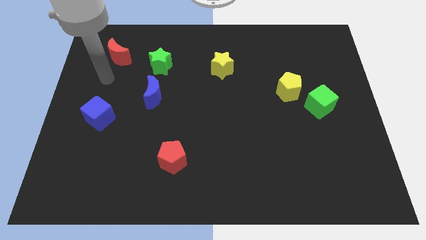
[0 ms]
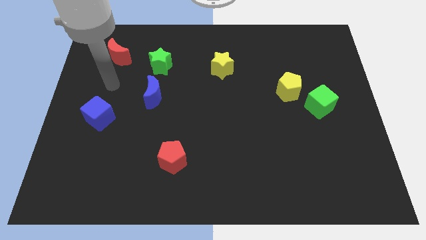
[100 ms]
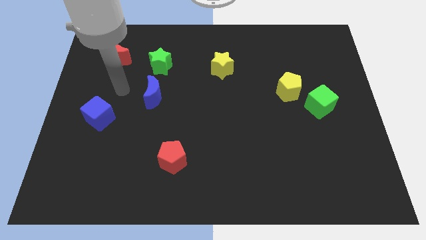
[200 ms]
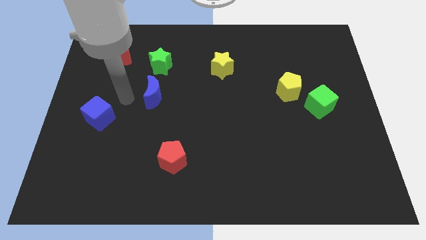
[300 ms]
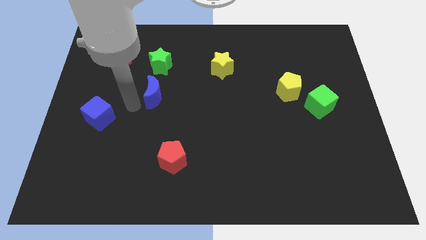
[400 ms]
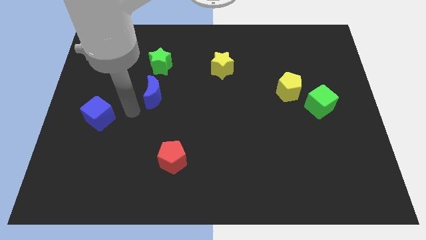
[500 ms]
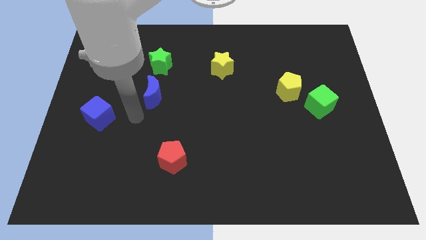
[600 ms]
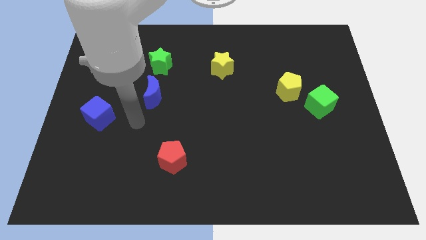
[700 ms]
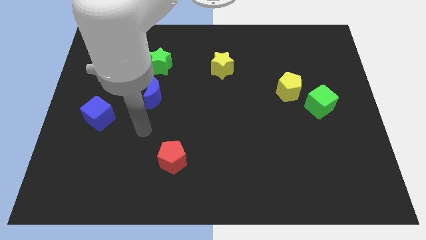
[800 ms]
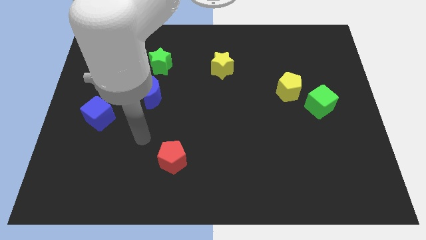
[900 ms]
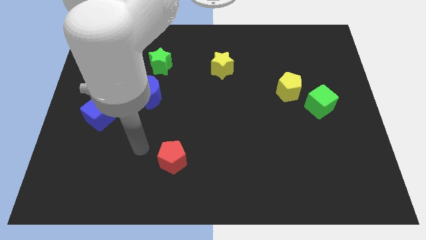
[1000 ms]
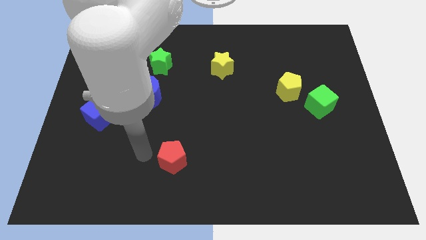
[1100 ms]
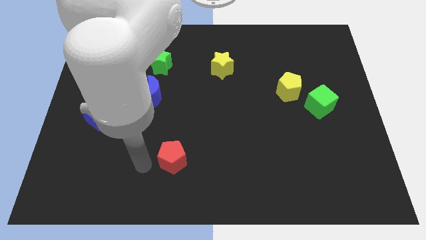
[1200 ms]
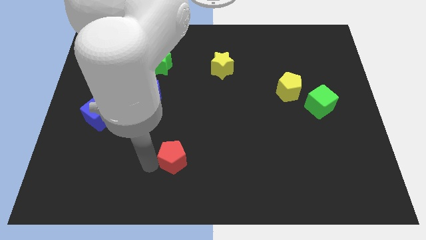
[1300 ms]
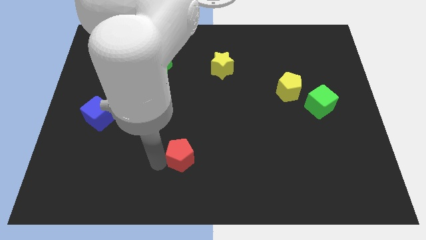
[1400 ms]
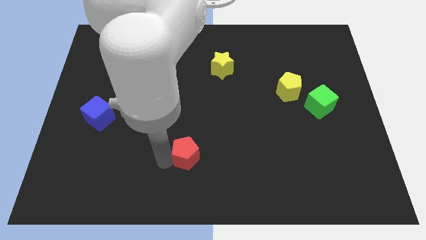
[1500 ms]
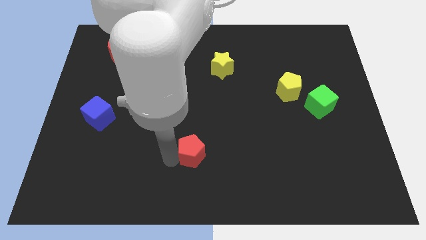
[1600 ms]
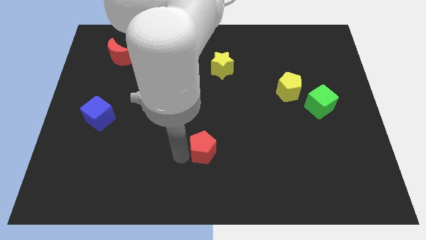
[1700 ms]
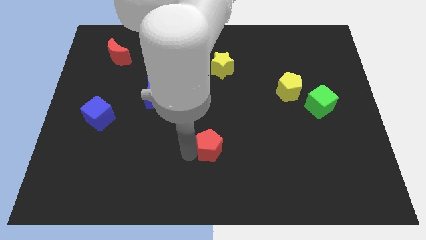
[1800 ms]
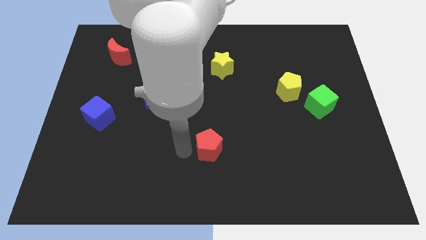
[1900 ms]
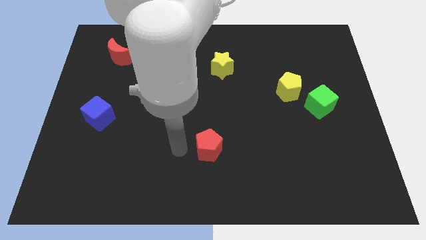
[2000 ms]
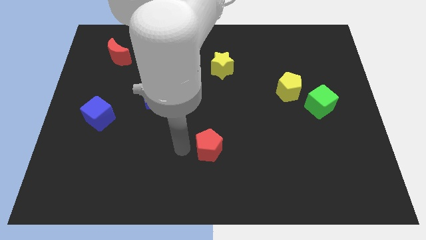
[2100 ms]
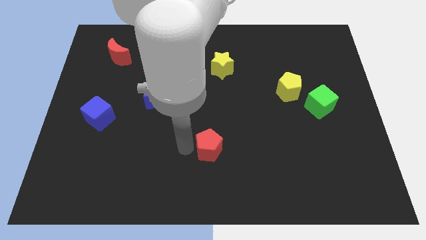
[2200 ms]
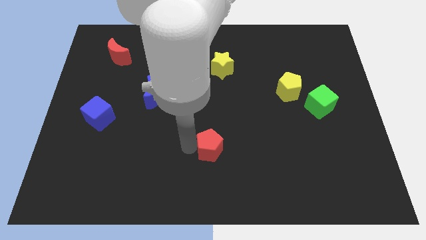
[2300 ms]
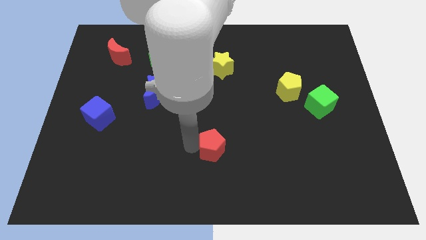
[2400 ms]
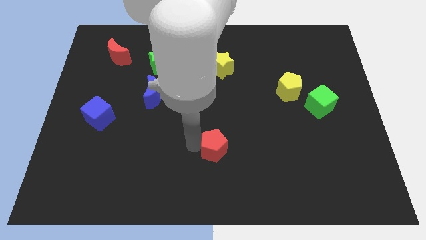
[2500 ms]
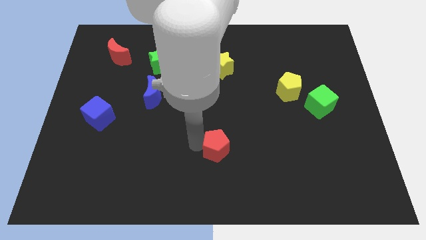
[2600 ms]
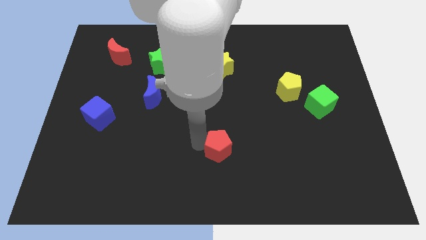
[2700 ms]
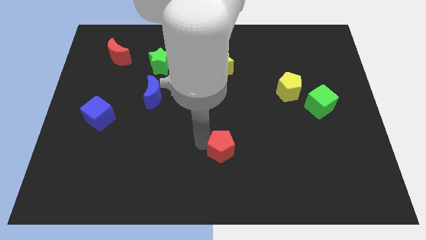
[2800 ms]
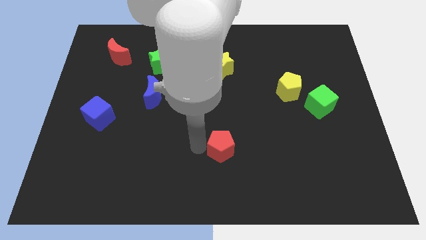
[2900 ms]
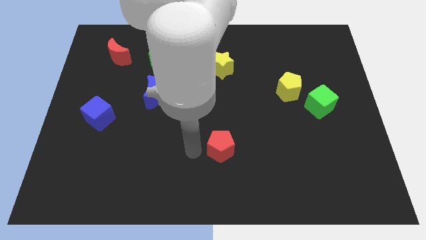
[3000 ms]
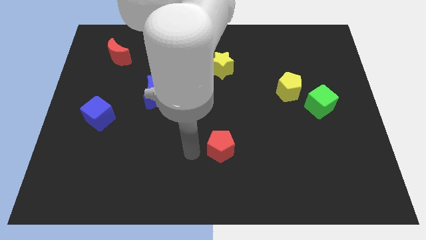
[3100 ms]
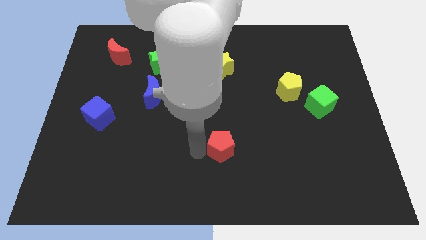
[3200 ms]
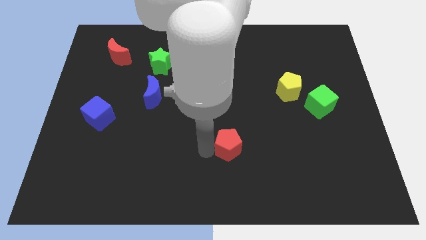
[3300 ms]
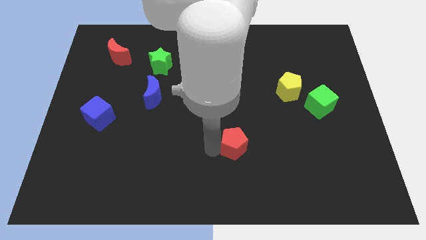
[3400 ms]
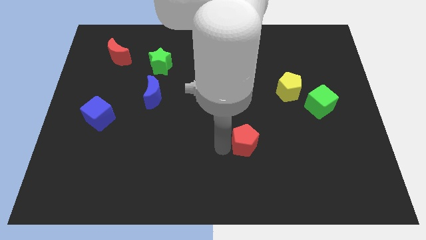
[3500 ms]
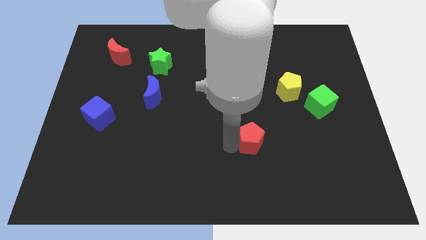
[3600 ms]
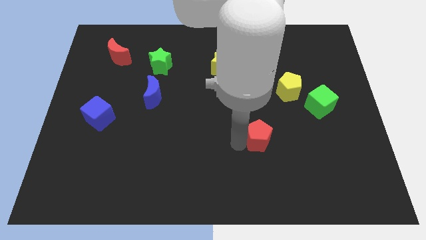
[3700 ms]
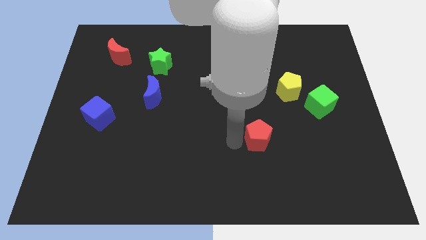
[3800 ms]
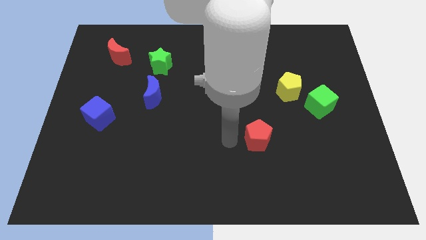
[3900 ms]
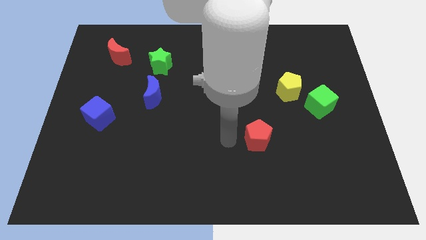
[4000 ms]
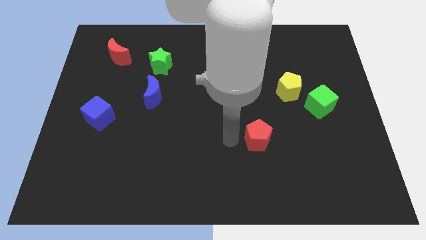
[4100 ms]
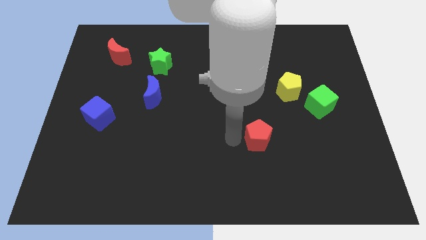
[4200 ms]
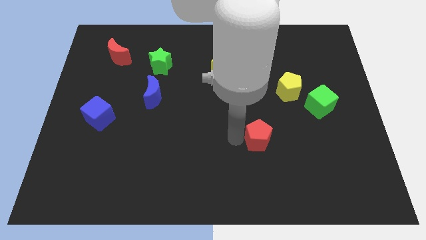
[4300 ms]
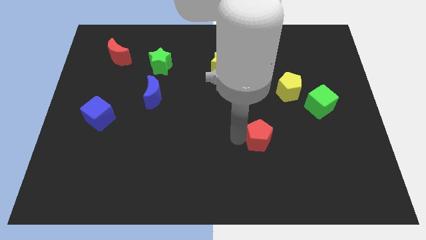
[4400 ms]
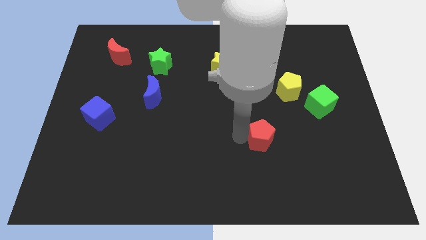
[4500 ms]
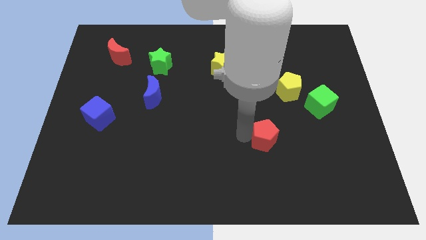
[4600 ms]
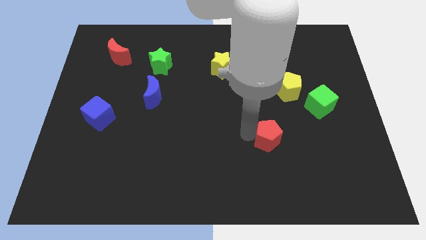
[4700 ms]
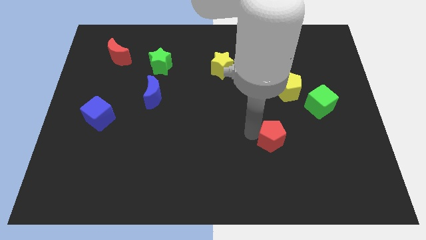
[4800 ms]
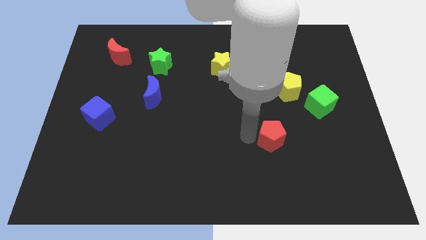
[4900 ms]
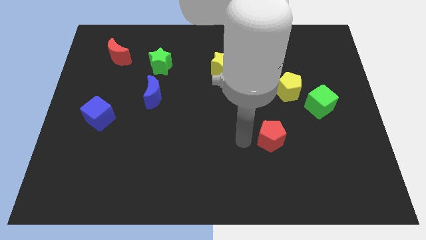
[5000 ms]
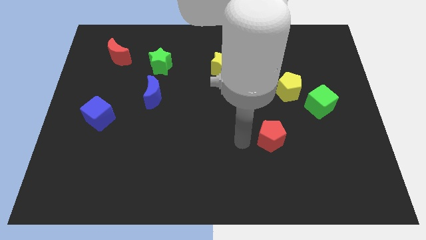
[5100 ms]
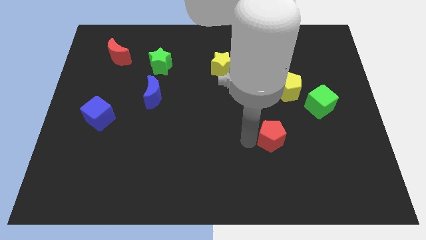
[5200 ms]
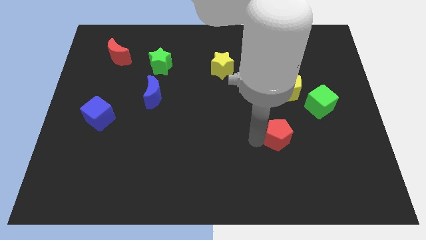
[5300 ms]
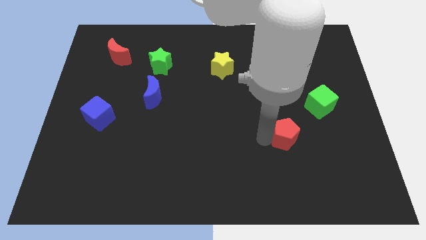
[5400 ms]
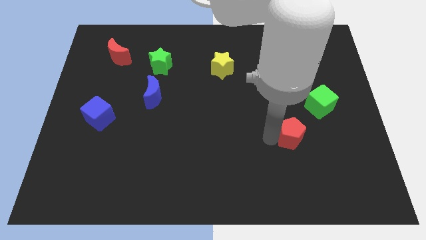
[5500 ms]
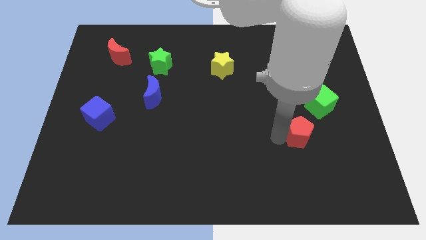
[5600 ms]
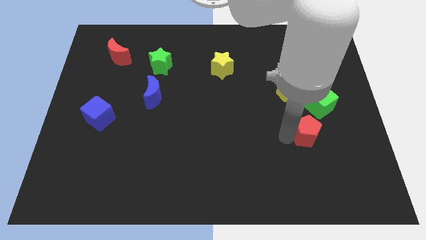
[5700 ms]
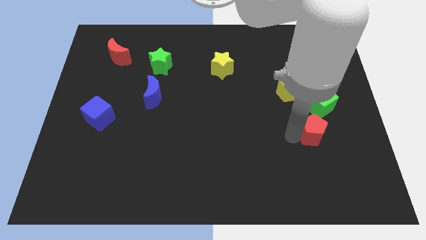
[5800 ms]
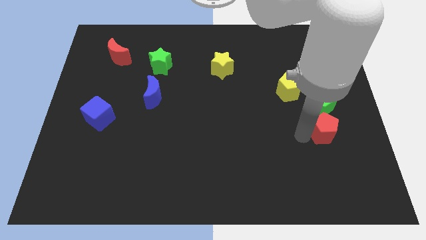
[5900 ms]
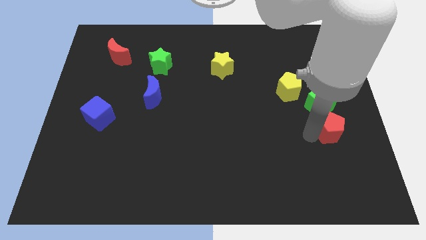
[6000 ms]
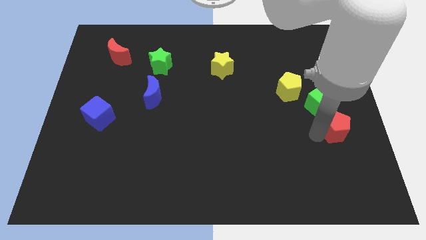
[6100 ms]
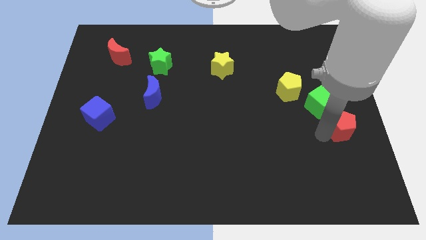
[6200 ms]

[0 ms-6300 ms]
push the red pentagon to the right side

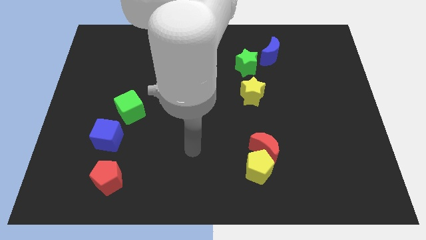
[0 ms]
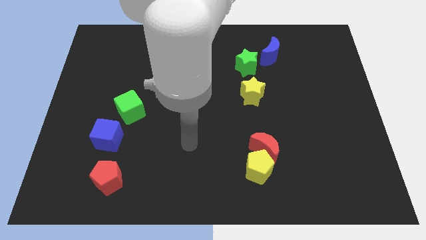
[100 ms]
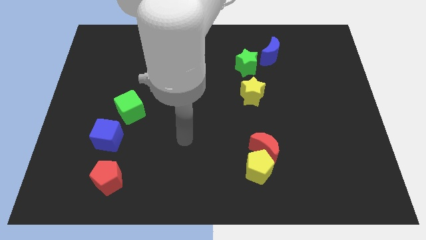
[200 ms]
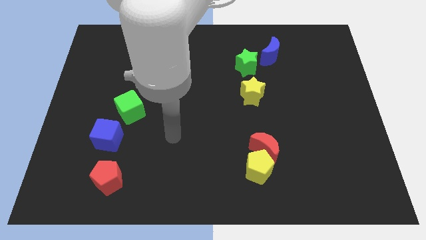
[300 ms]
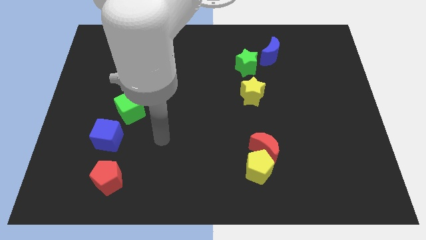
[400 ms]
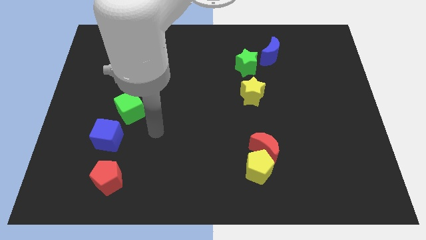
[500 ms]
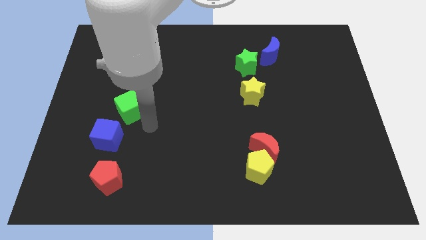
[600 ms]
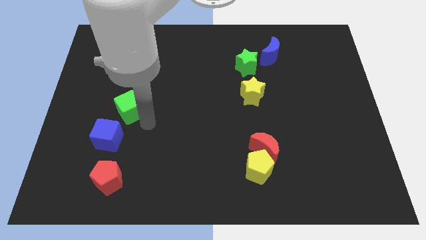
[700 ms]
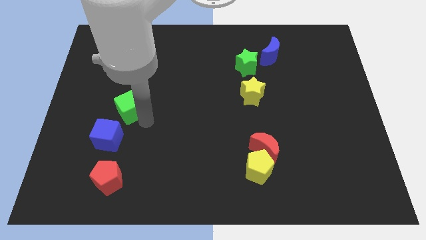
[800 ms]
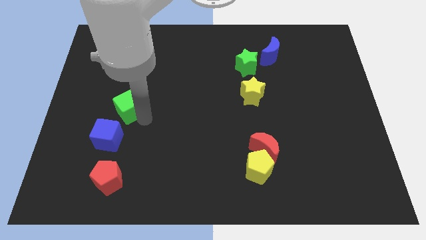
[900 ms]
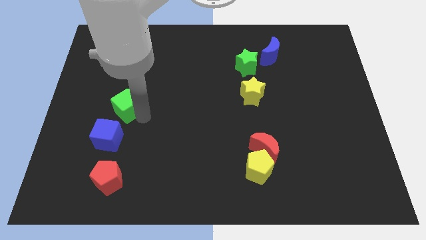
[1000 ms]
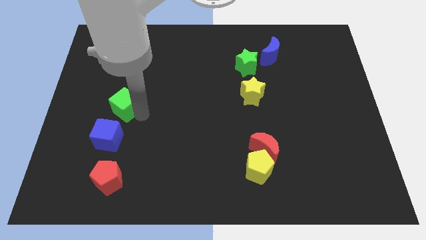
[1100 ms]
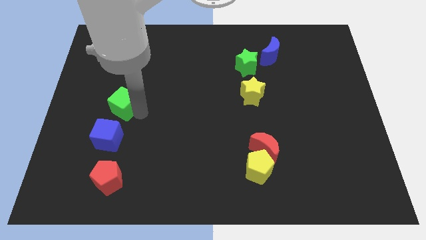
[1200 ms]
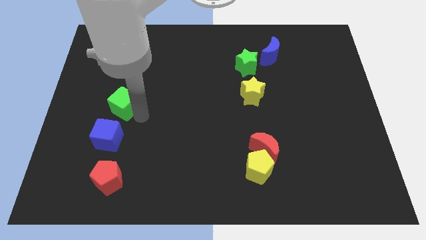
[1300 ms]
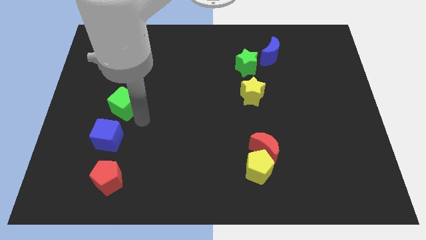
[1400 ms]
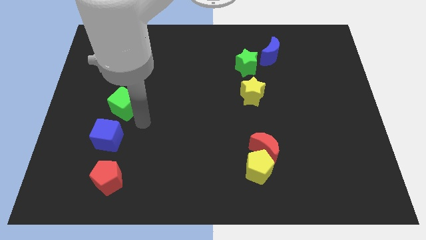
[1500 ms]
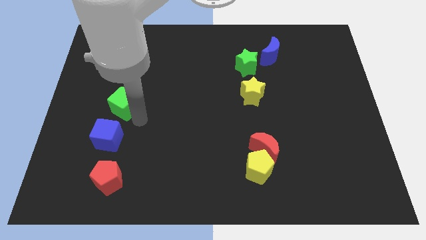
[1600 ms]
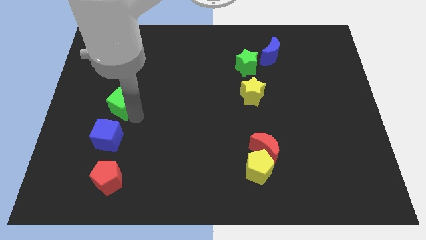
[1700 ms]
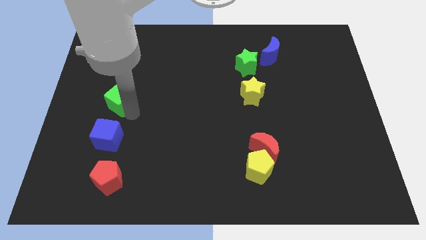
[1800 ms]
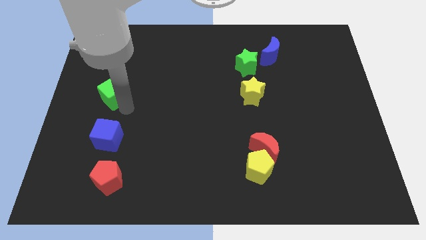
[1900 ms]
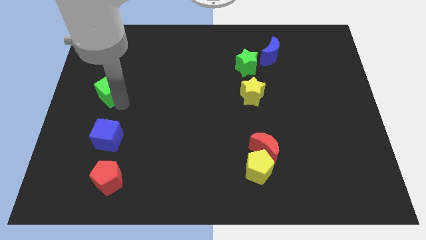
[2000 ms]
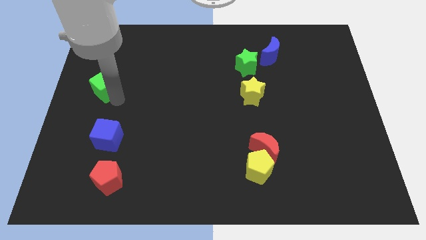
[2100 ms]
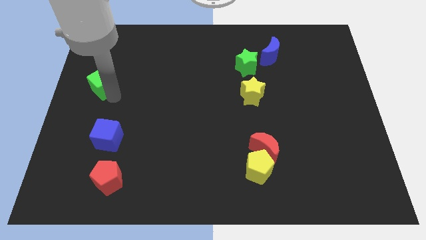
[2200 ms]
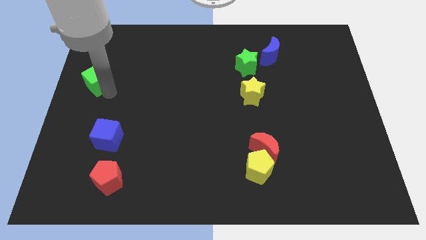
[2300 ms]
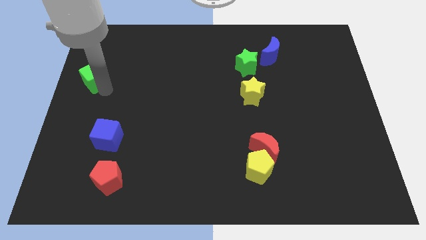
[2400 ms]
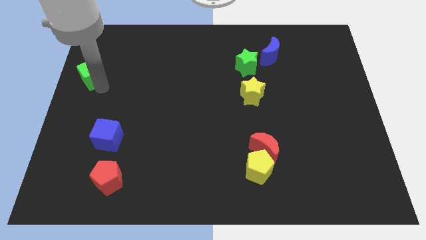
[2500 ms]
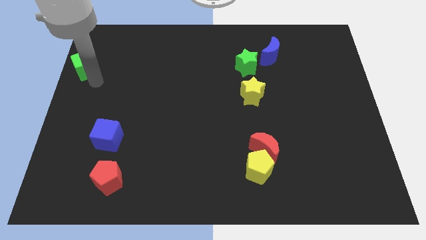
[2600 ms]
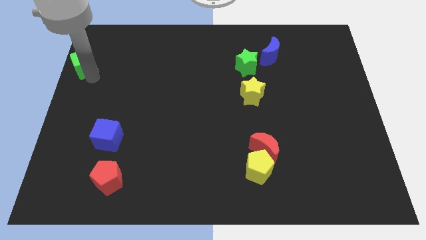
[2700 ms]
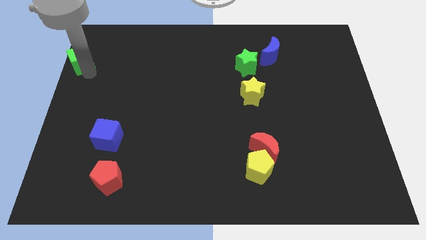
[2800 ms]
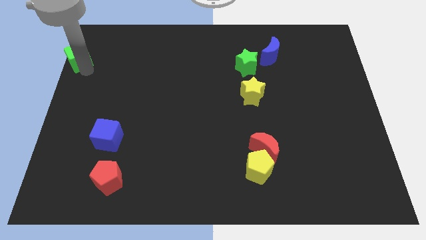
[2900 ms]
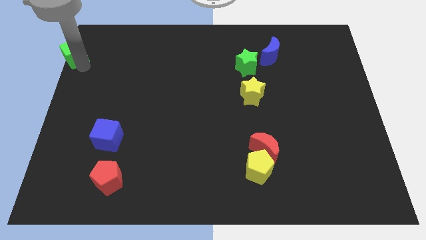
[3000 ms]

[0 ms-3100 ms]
push the green cube to the top left
